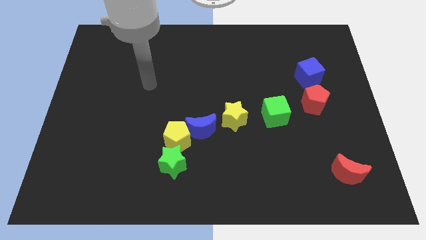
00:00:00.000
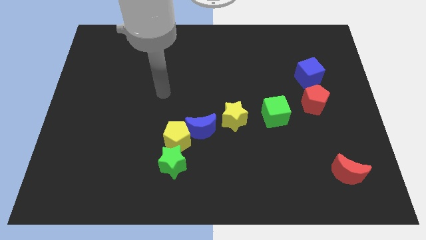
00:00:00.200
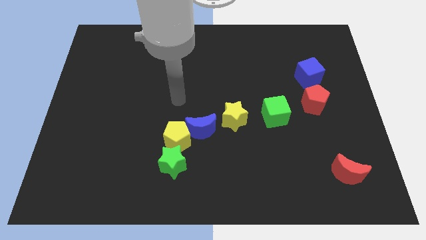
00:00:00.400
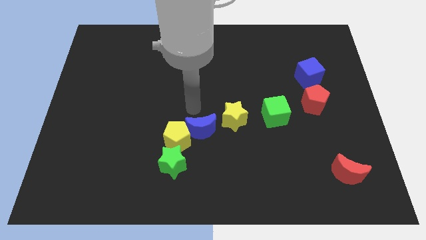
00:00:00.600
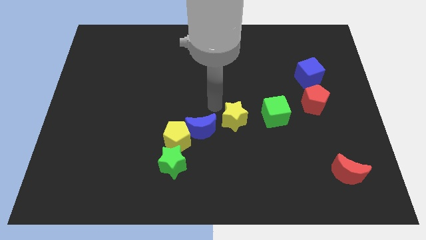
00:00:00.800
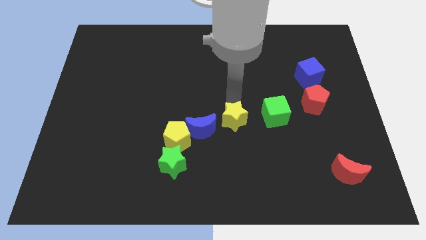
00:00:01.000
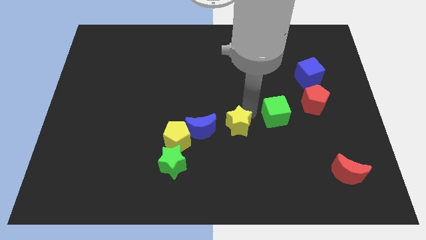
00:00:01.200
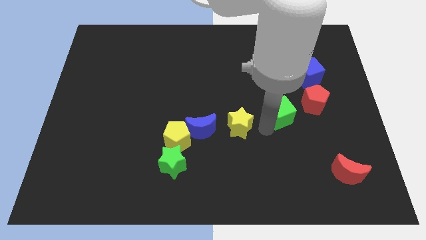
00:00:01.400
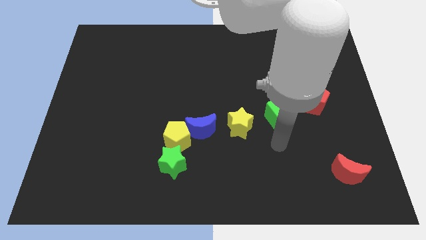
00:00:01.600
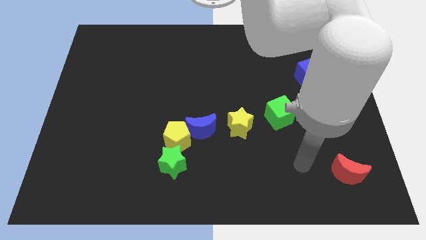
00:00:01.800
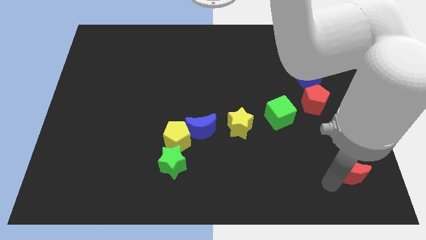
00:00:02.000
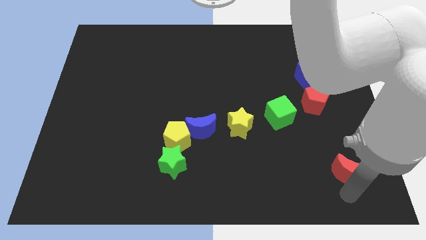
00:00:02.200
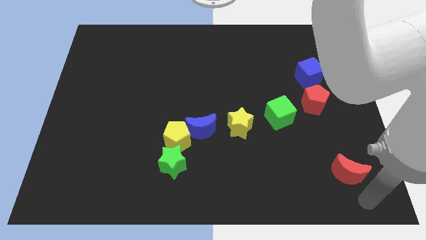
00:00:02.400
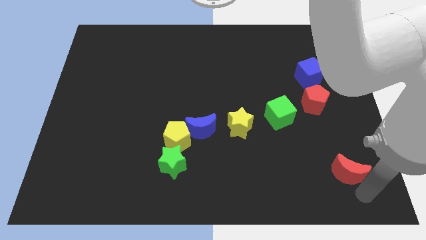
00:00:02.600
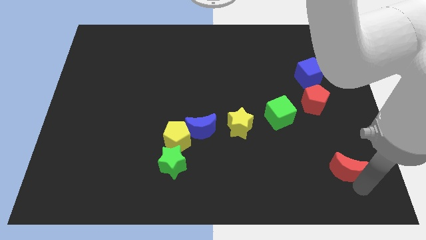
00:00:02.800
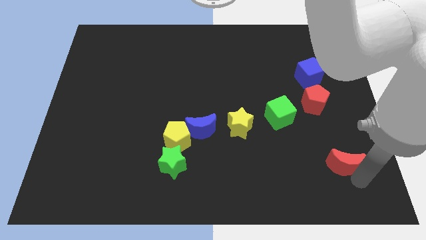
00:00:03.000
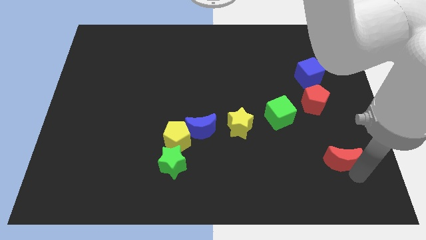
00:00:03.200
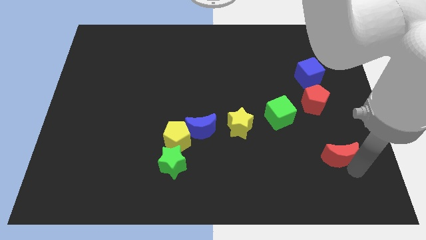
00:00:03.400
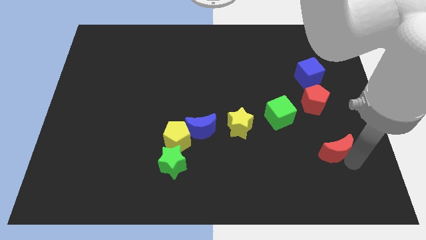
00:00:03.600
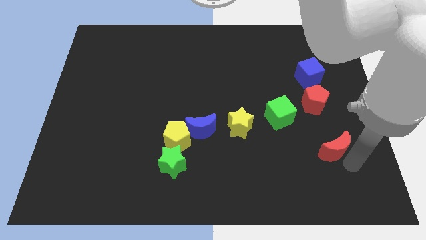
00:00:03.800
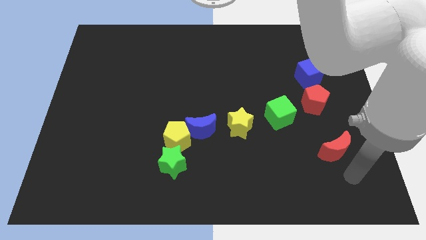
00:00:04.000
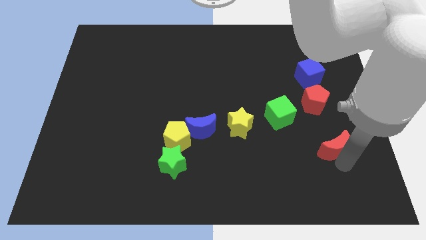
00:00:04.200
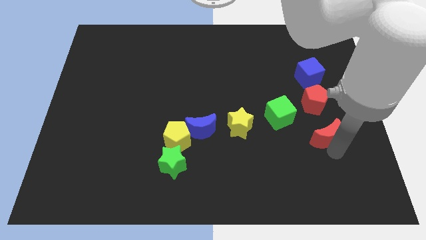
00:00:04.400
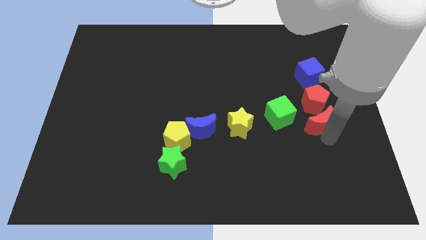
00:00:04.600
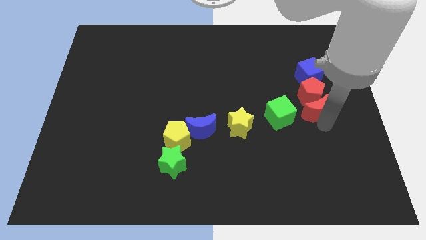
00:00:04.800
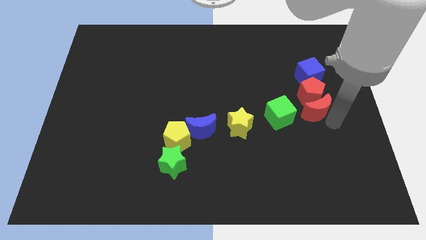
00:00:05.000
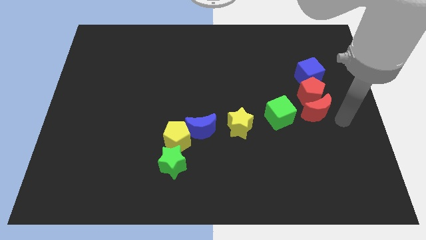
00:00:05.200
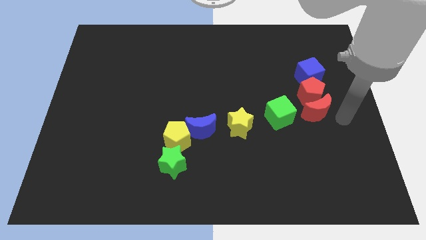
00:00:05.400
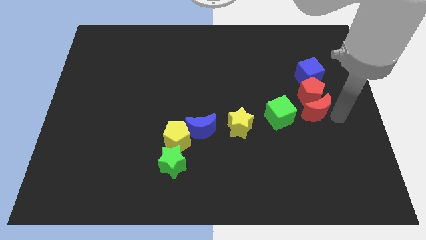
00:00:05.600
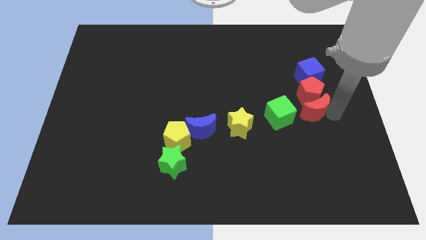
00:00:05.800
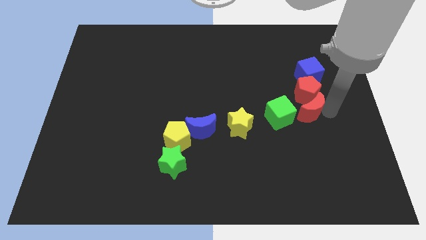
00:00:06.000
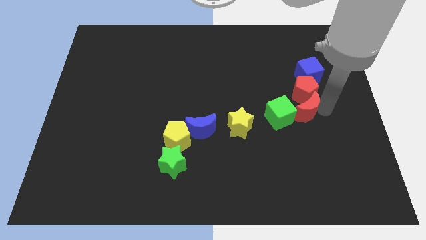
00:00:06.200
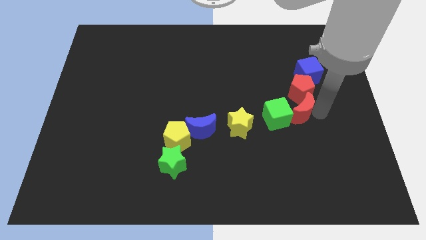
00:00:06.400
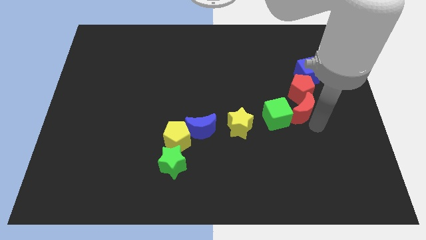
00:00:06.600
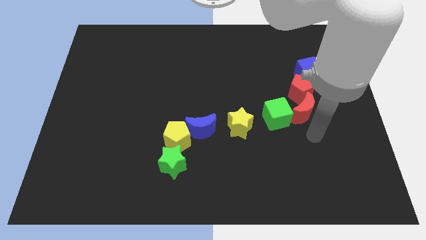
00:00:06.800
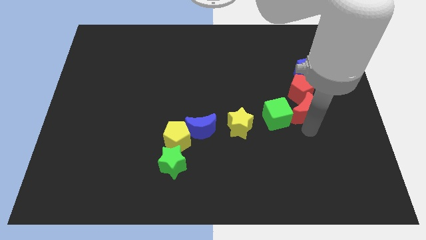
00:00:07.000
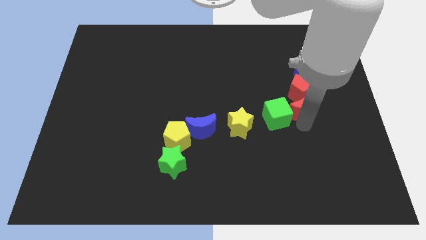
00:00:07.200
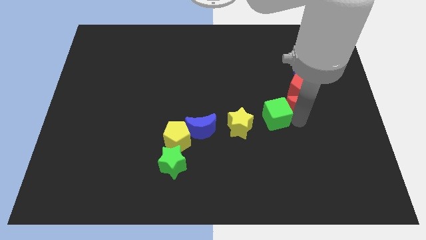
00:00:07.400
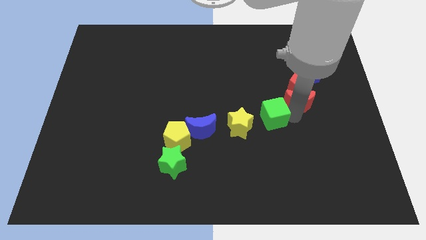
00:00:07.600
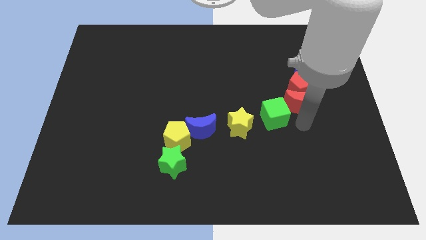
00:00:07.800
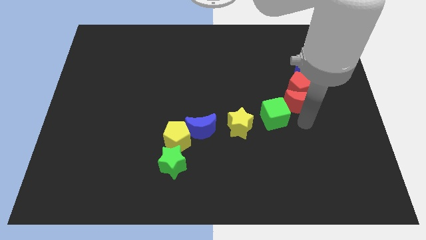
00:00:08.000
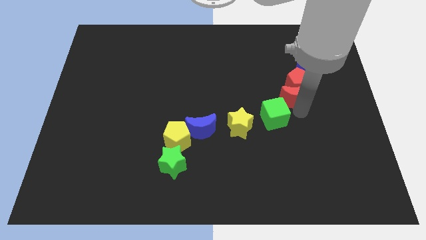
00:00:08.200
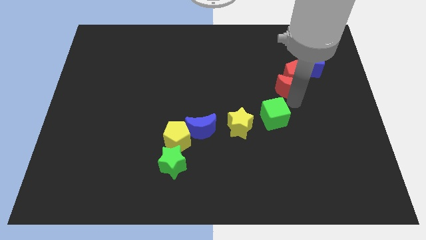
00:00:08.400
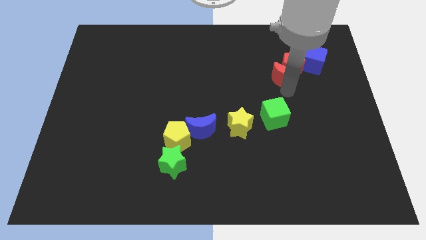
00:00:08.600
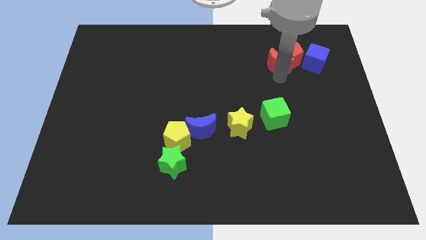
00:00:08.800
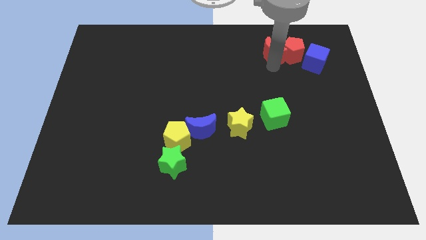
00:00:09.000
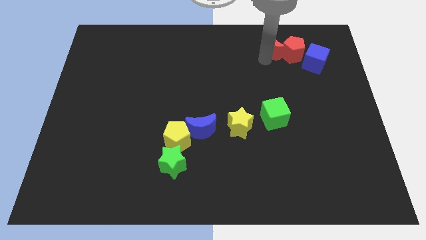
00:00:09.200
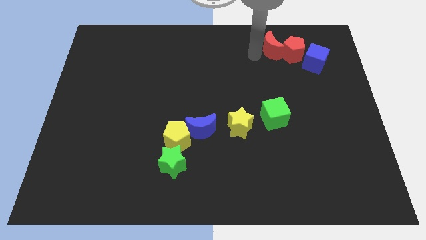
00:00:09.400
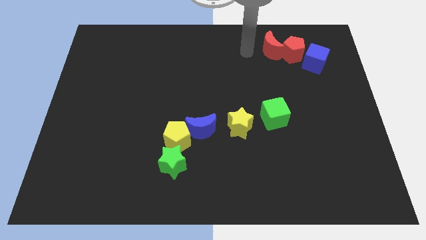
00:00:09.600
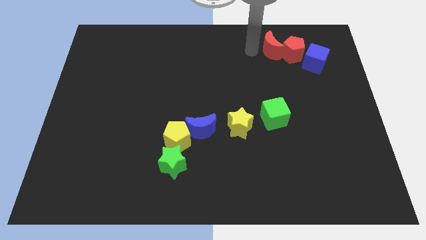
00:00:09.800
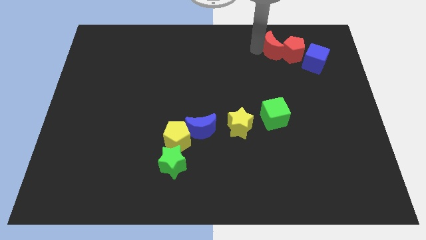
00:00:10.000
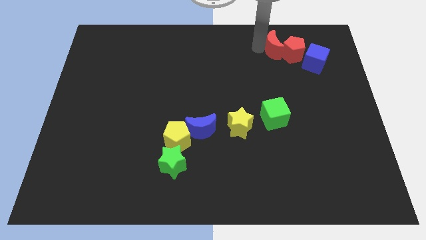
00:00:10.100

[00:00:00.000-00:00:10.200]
push the red moon to the top left of the blue cube

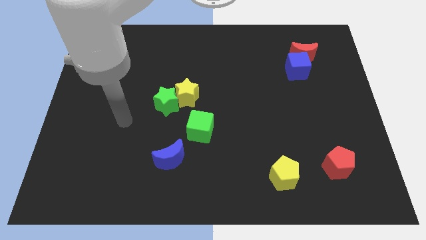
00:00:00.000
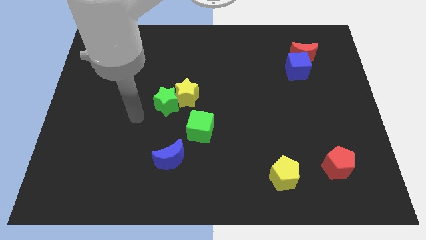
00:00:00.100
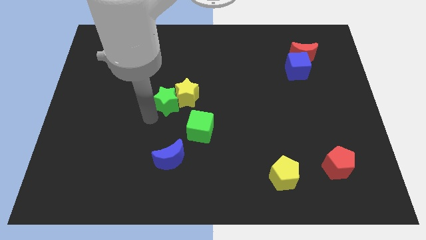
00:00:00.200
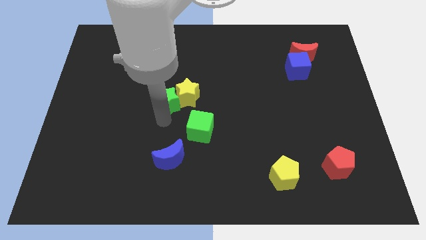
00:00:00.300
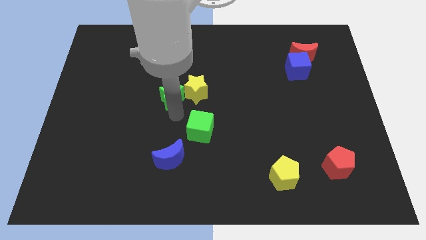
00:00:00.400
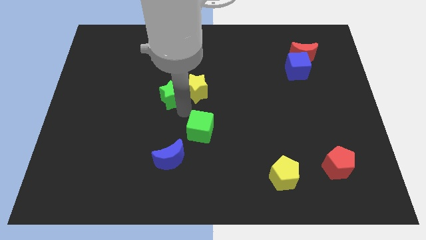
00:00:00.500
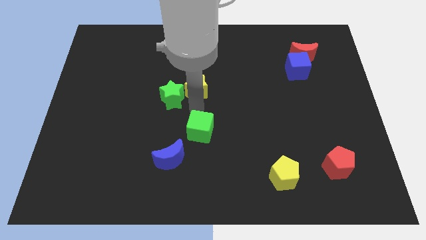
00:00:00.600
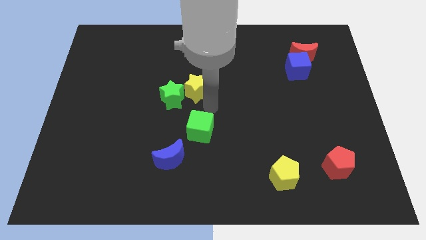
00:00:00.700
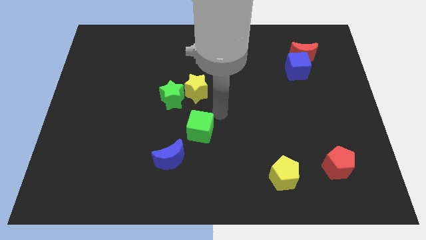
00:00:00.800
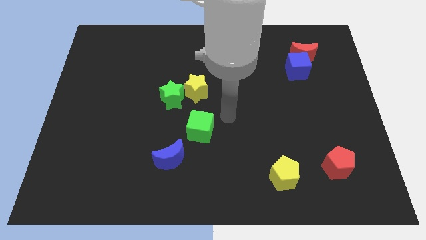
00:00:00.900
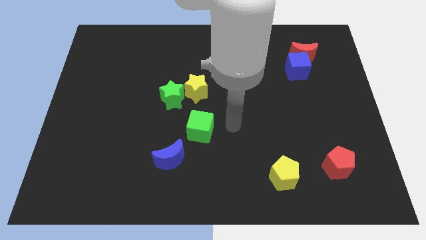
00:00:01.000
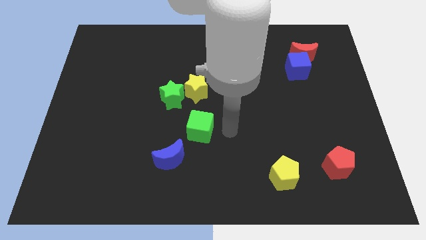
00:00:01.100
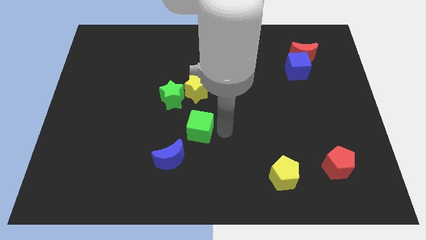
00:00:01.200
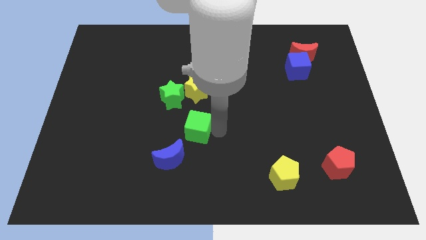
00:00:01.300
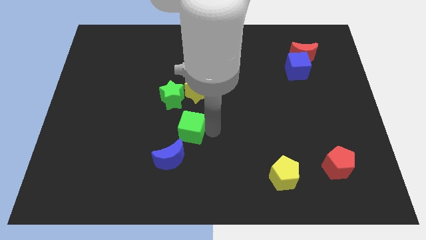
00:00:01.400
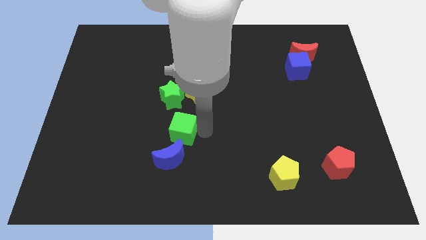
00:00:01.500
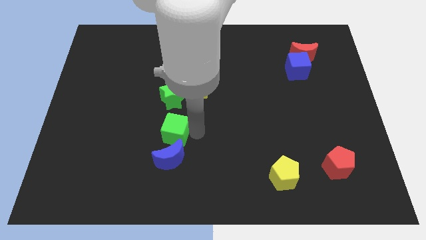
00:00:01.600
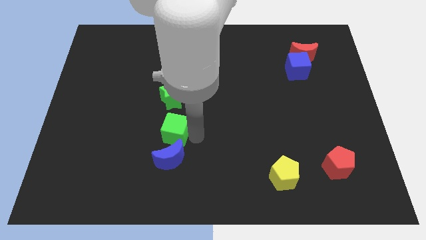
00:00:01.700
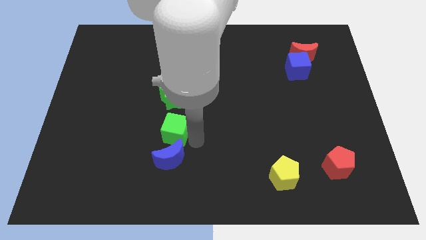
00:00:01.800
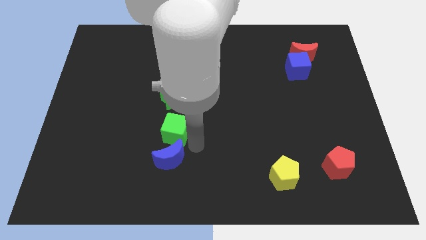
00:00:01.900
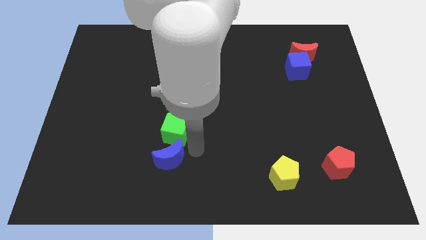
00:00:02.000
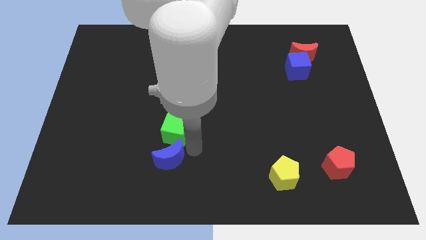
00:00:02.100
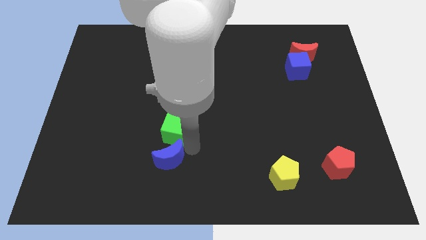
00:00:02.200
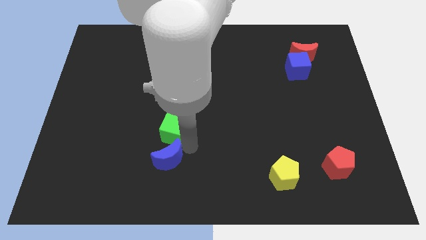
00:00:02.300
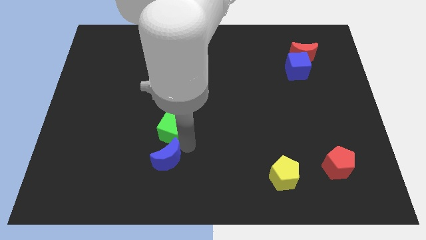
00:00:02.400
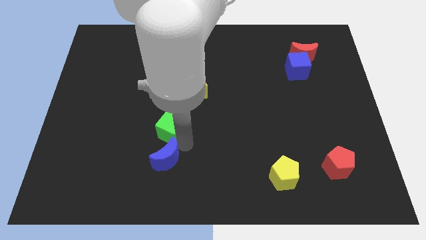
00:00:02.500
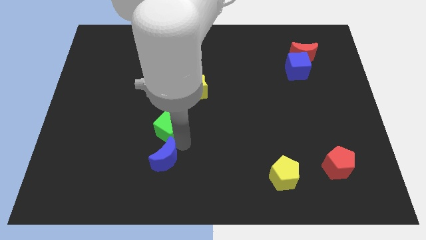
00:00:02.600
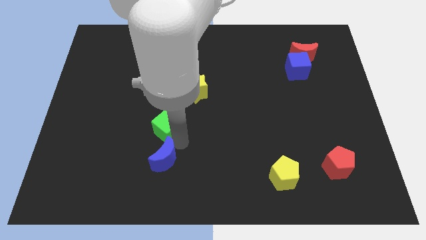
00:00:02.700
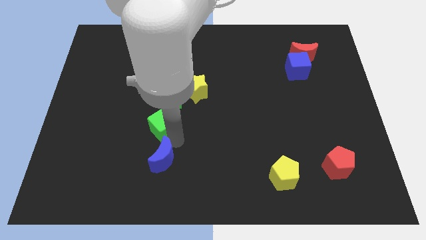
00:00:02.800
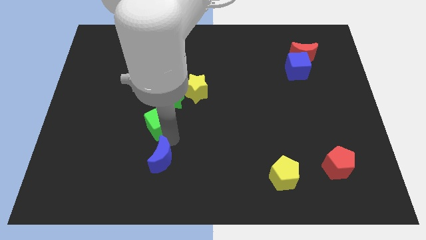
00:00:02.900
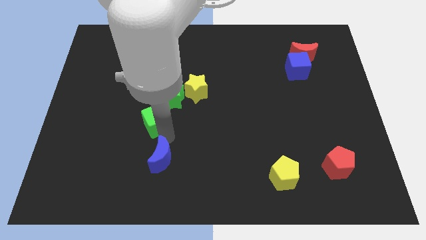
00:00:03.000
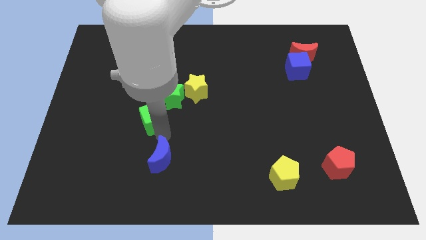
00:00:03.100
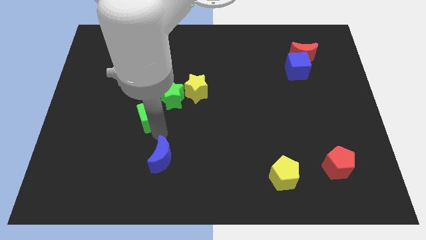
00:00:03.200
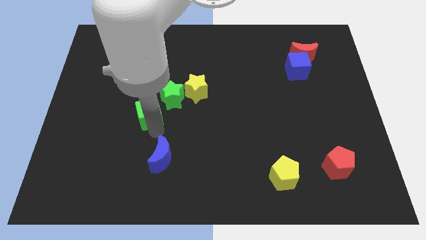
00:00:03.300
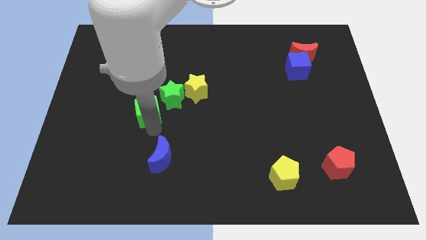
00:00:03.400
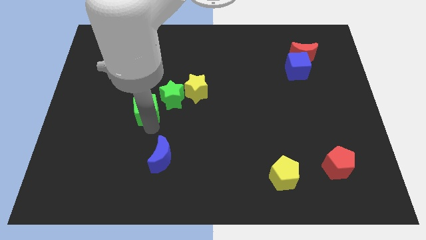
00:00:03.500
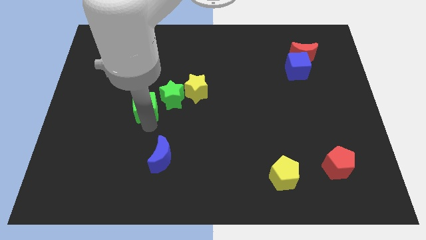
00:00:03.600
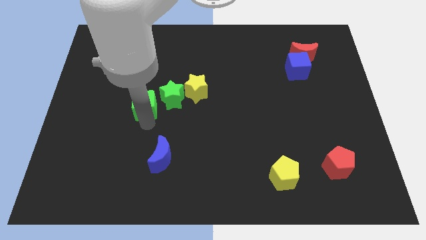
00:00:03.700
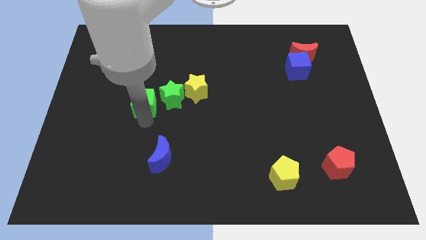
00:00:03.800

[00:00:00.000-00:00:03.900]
slide the green cube left of the yellow star
